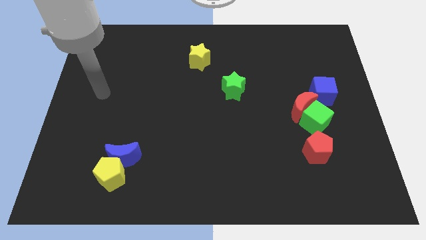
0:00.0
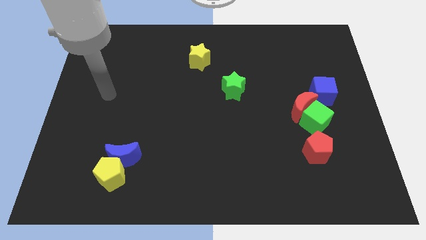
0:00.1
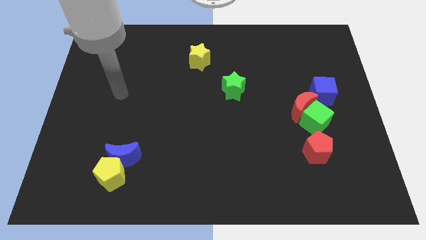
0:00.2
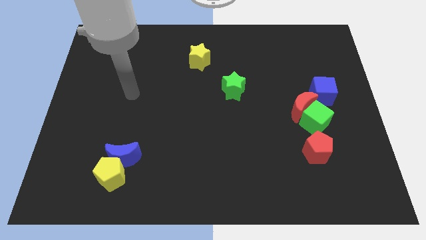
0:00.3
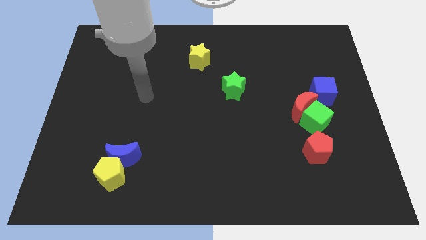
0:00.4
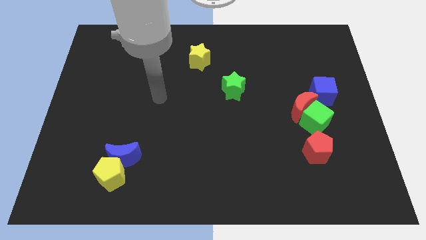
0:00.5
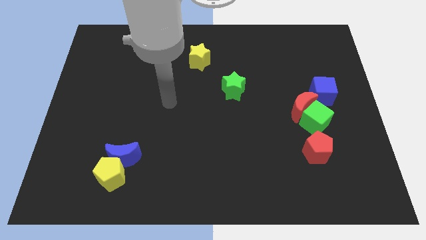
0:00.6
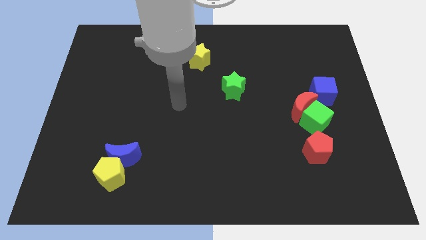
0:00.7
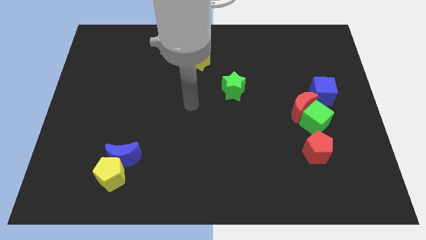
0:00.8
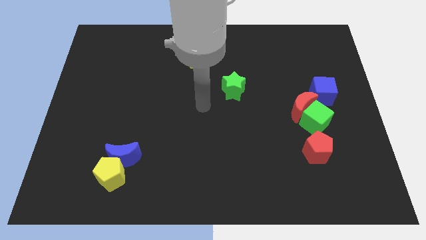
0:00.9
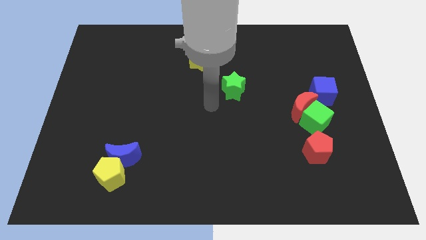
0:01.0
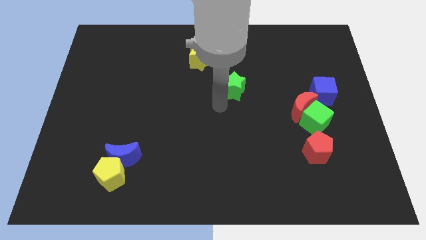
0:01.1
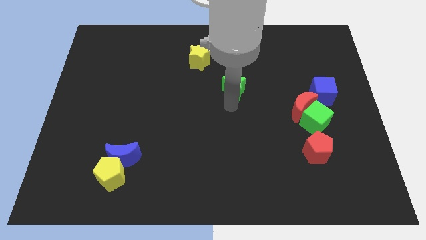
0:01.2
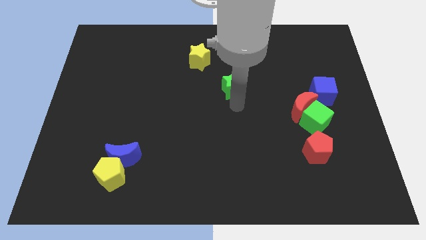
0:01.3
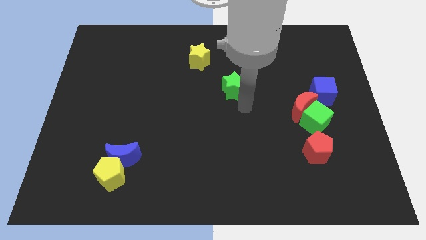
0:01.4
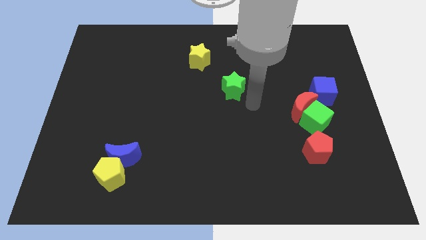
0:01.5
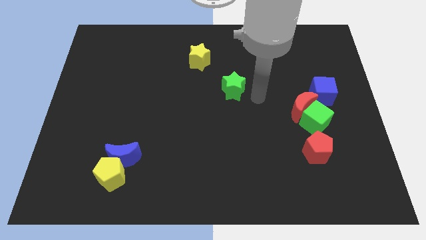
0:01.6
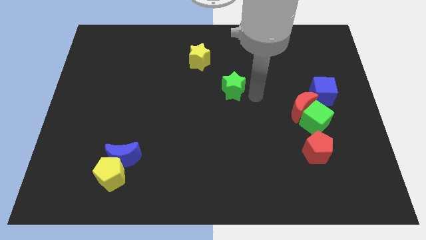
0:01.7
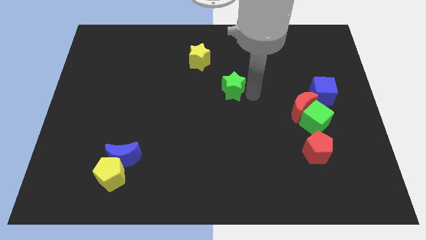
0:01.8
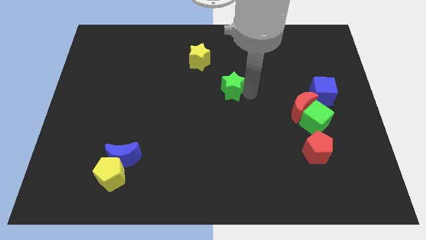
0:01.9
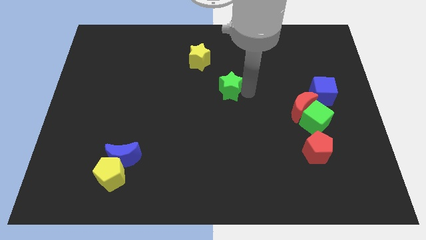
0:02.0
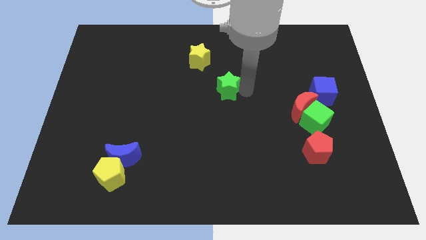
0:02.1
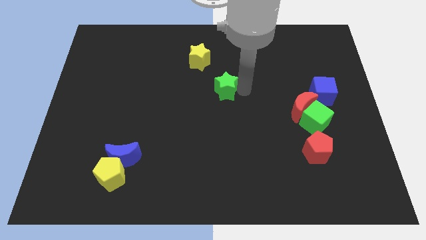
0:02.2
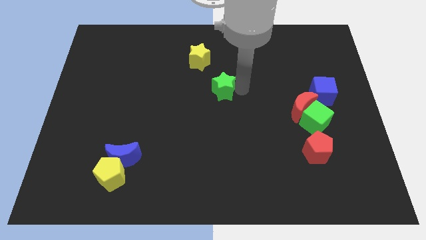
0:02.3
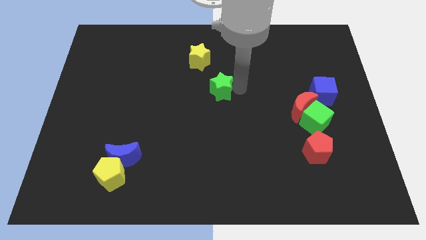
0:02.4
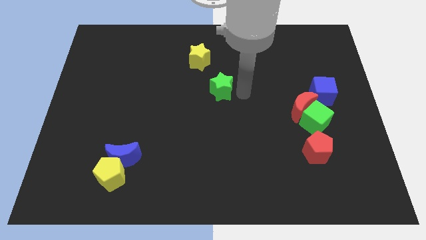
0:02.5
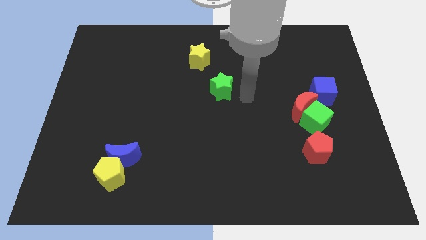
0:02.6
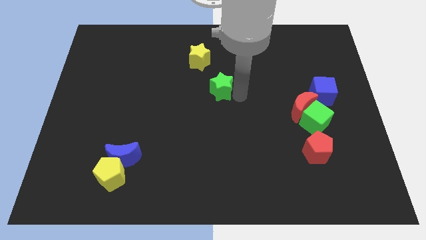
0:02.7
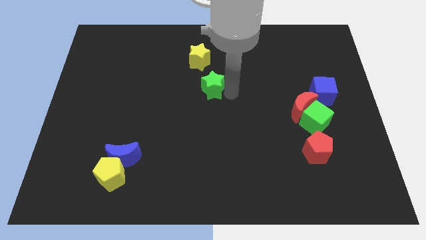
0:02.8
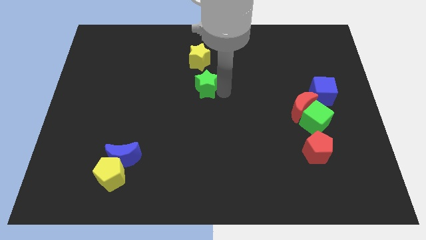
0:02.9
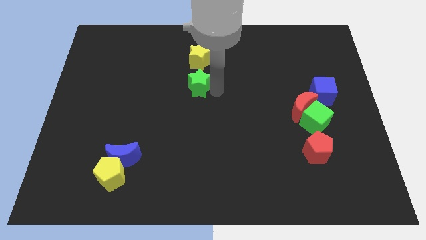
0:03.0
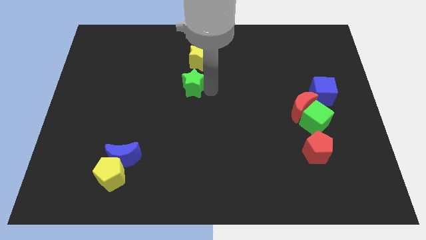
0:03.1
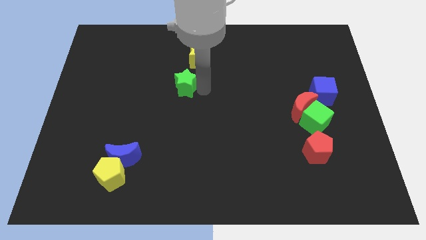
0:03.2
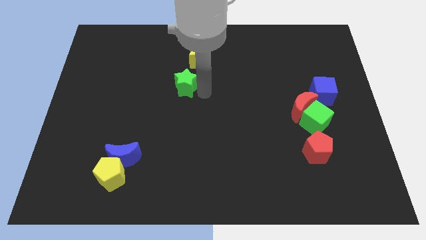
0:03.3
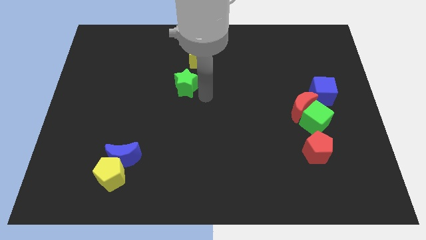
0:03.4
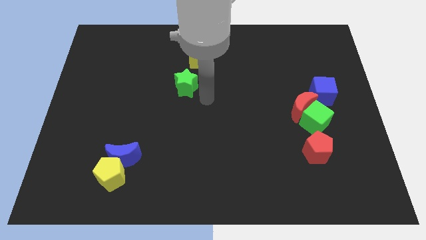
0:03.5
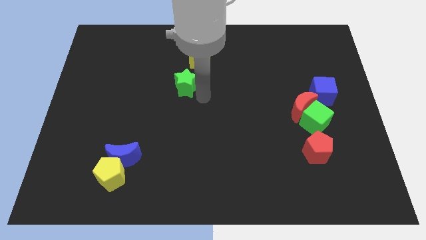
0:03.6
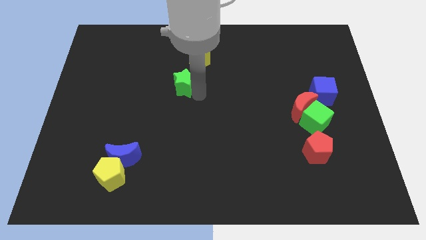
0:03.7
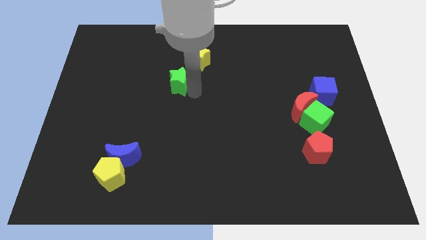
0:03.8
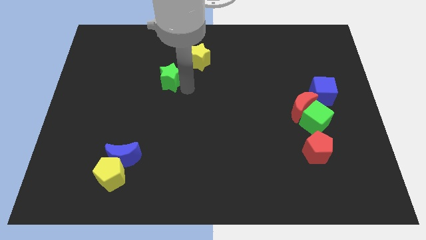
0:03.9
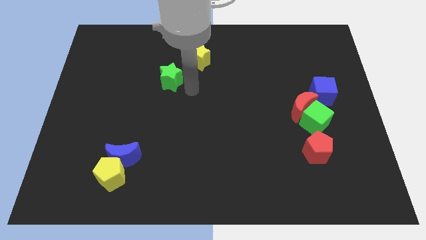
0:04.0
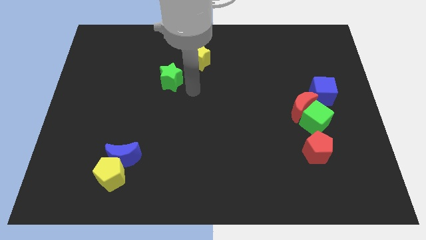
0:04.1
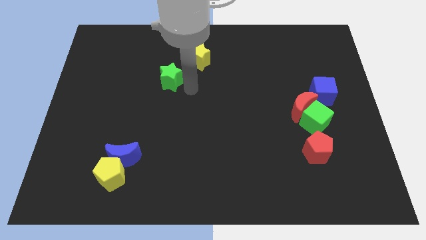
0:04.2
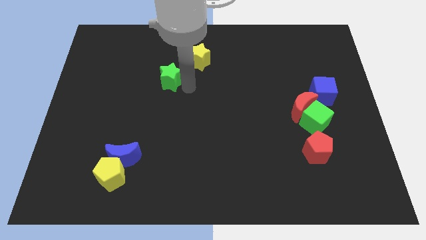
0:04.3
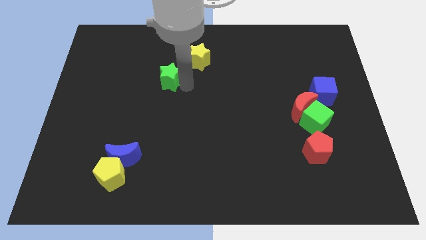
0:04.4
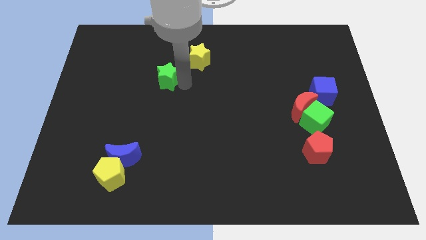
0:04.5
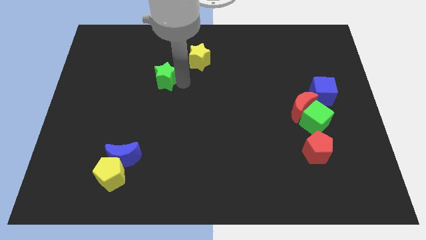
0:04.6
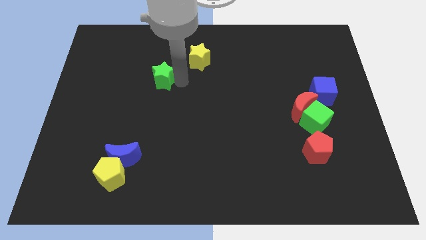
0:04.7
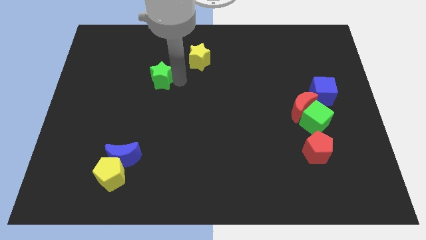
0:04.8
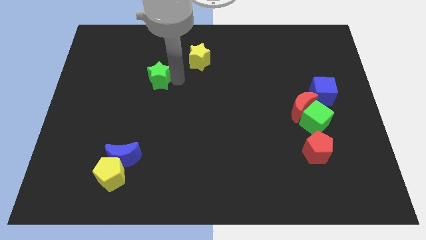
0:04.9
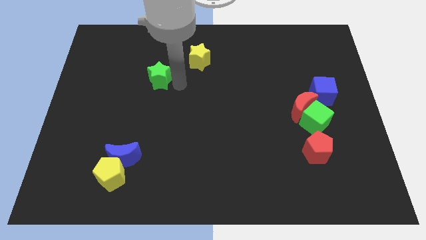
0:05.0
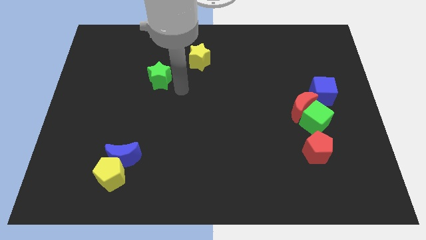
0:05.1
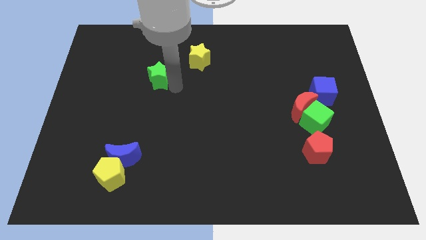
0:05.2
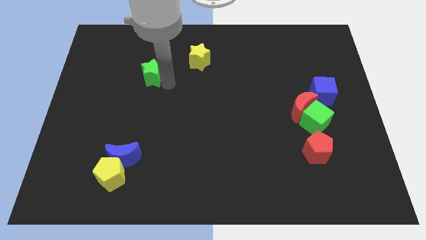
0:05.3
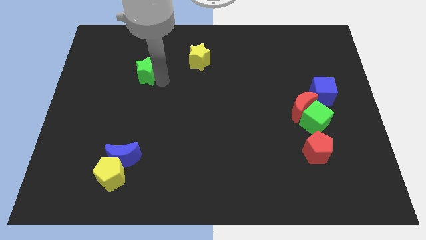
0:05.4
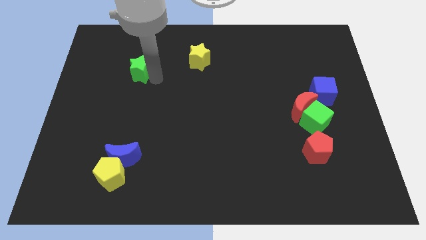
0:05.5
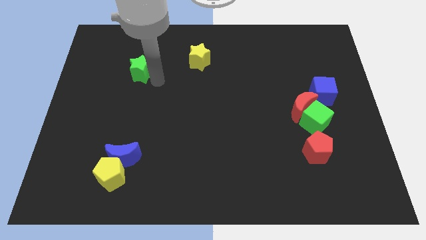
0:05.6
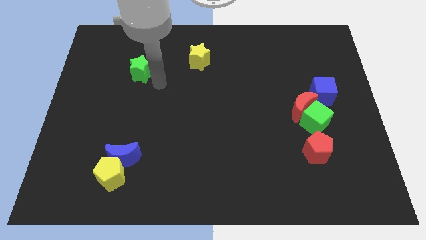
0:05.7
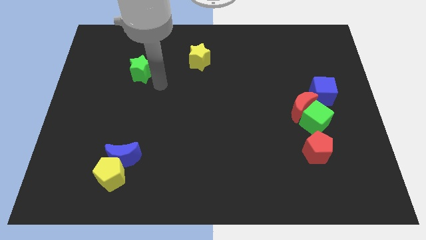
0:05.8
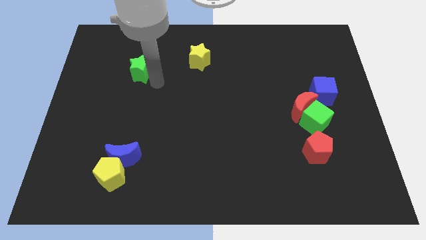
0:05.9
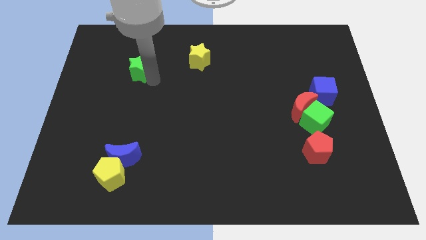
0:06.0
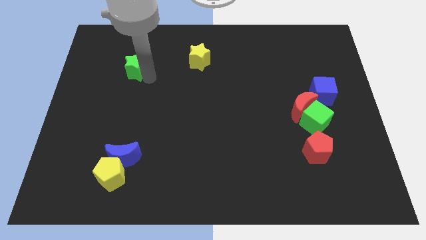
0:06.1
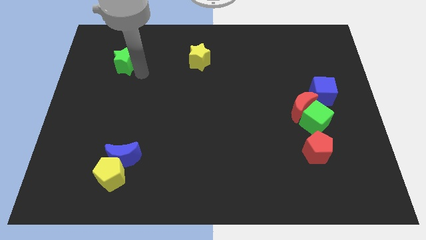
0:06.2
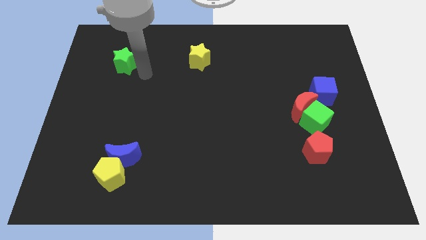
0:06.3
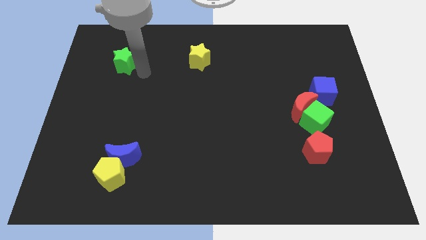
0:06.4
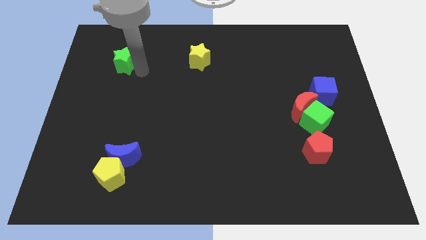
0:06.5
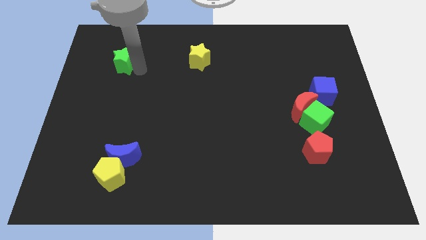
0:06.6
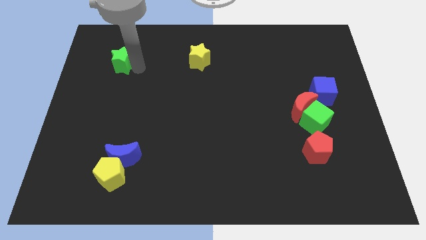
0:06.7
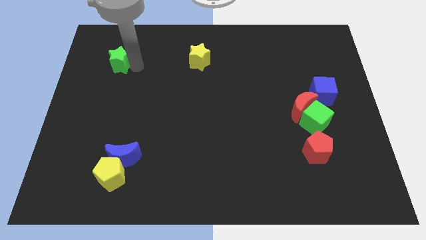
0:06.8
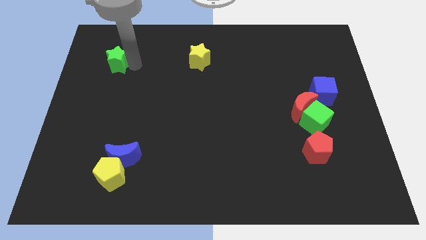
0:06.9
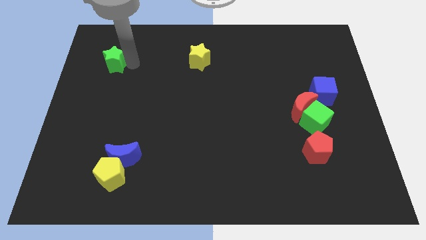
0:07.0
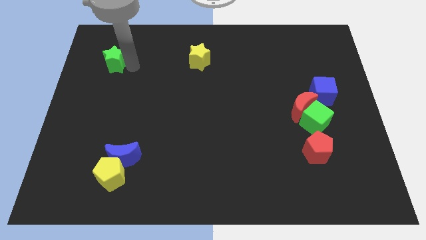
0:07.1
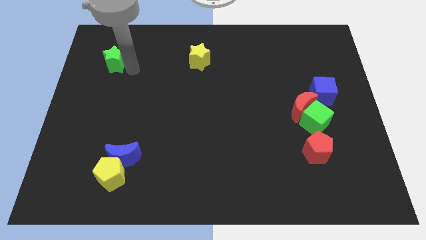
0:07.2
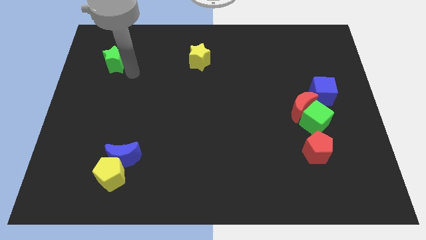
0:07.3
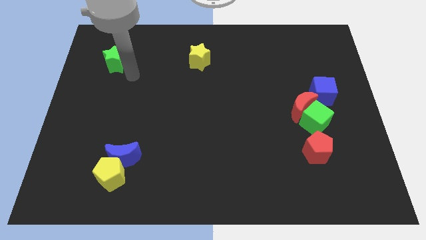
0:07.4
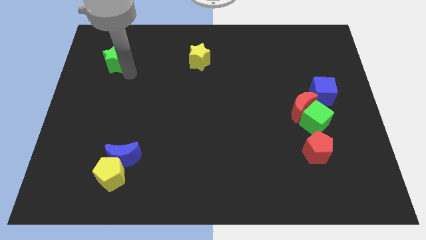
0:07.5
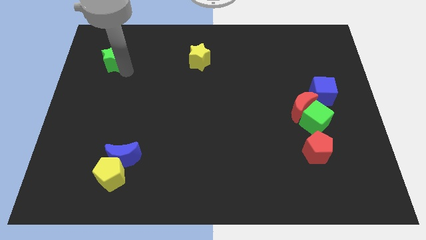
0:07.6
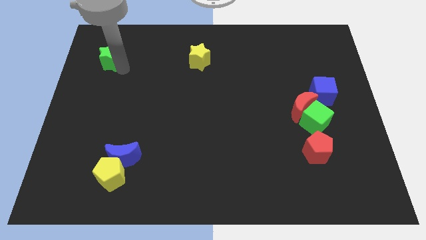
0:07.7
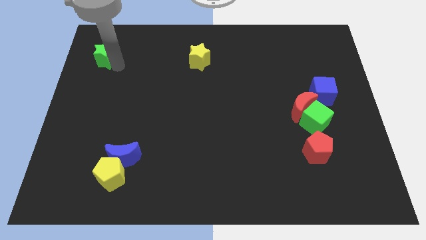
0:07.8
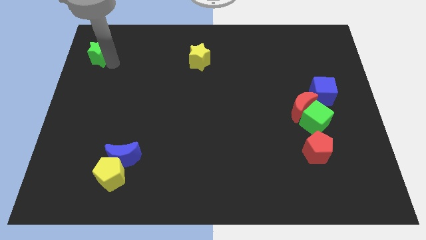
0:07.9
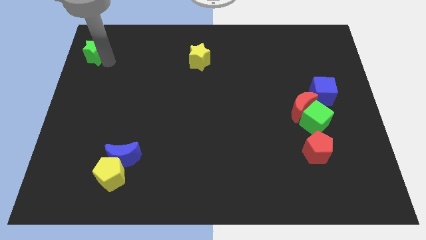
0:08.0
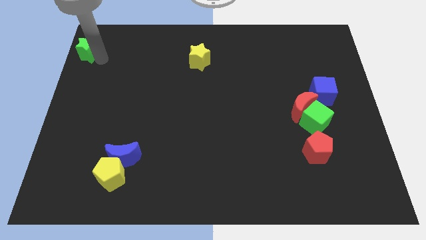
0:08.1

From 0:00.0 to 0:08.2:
put the green star to the upper left corner
